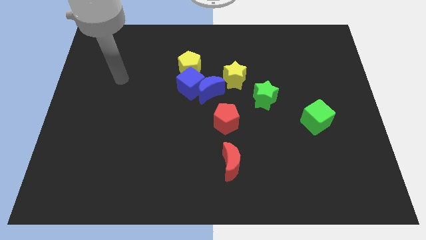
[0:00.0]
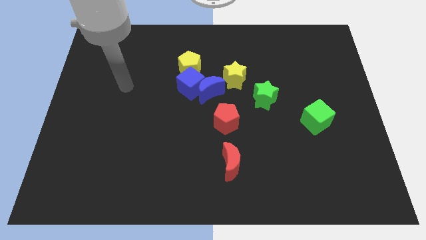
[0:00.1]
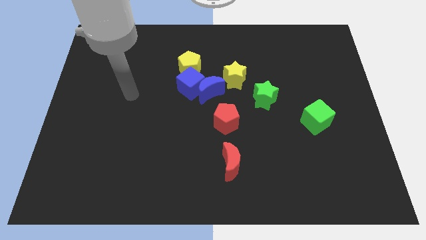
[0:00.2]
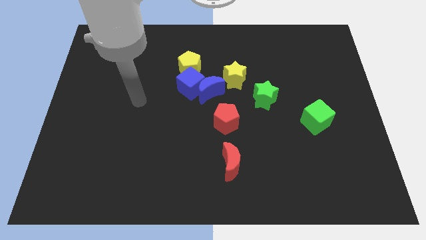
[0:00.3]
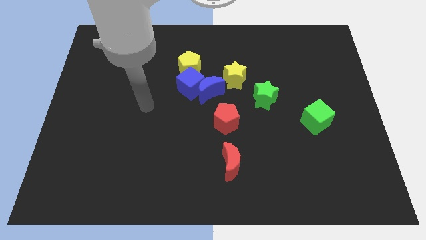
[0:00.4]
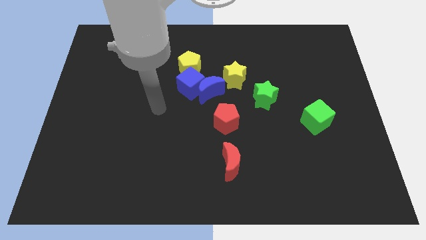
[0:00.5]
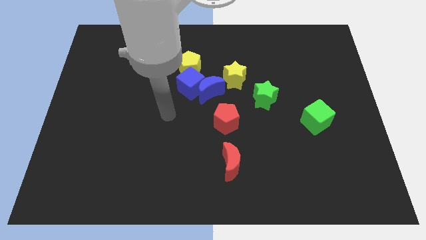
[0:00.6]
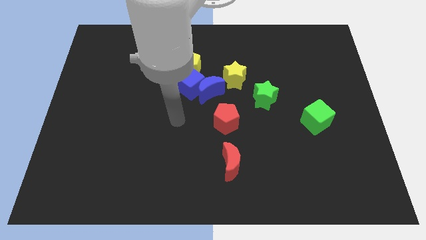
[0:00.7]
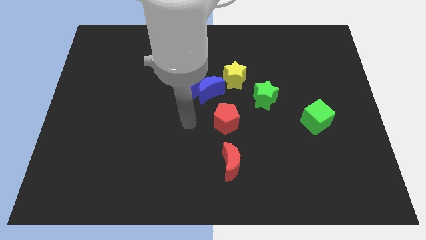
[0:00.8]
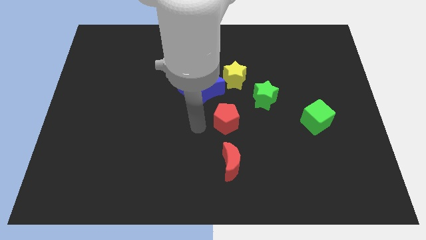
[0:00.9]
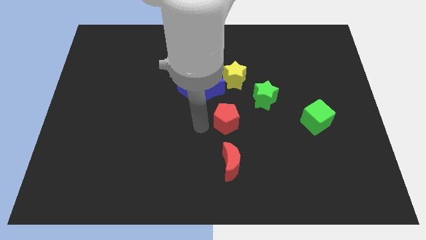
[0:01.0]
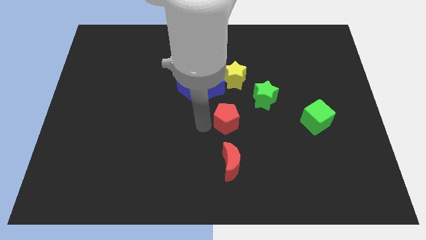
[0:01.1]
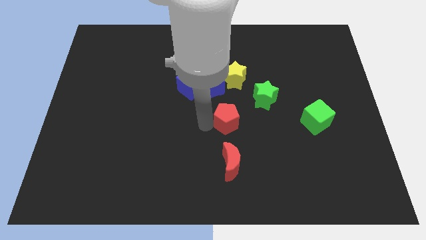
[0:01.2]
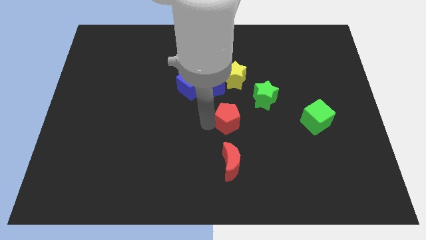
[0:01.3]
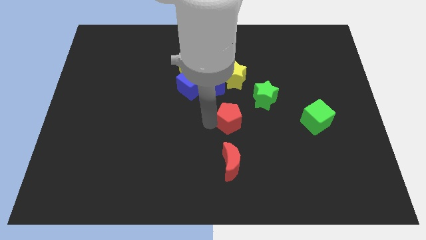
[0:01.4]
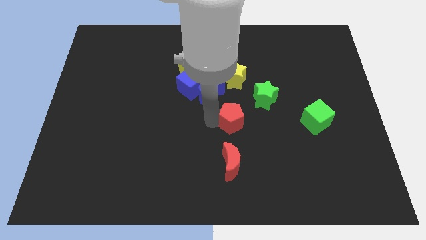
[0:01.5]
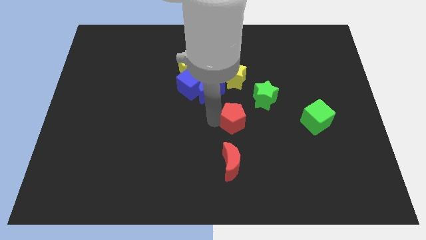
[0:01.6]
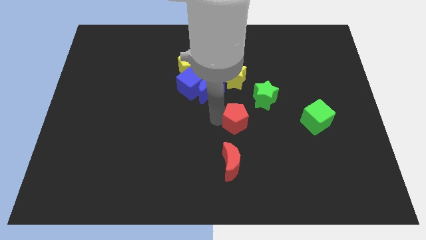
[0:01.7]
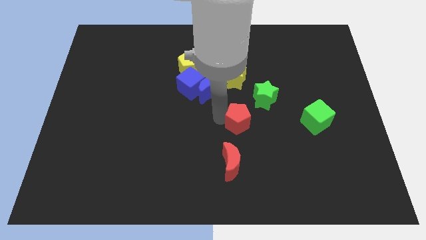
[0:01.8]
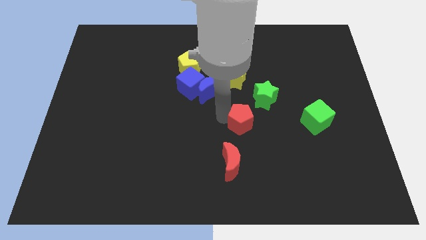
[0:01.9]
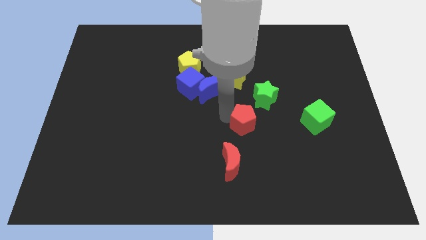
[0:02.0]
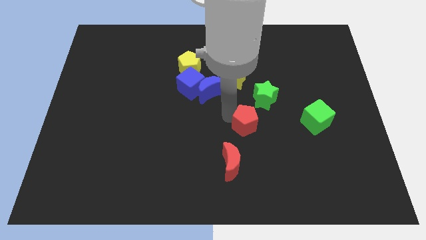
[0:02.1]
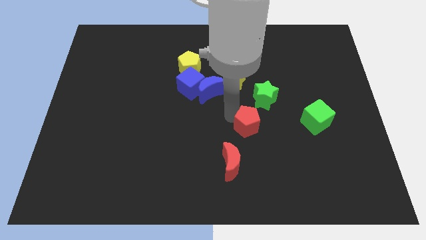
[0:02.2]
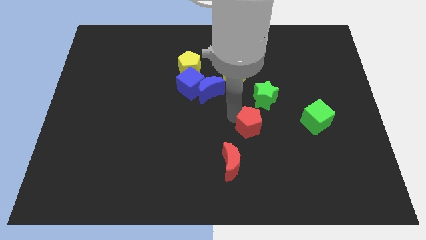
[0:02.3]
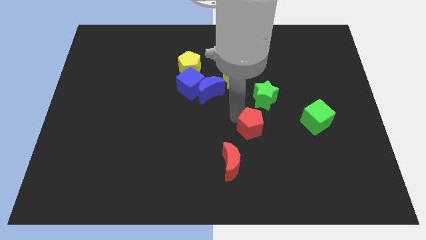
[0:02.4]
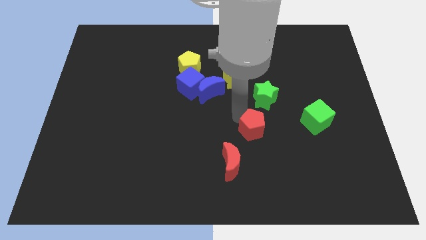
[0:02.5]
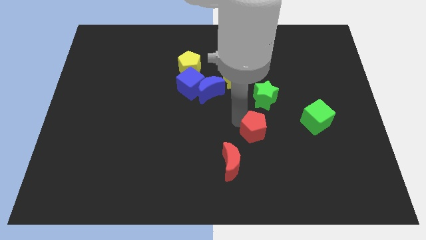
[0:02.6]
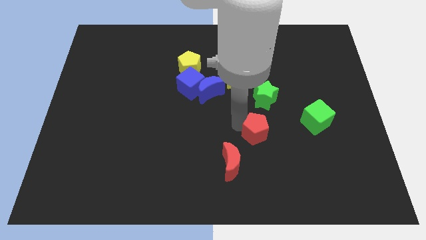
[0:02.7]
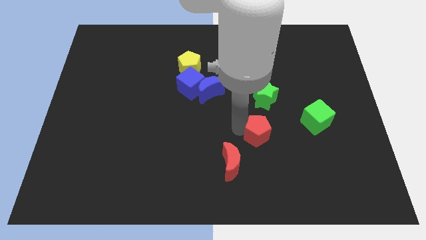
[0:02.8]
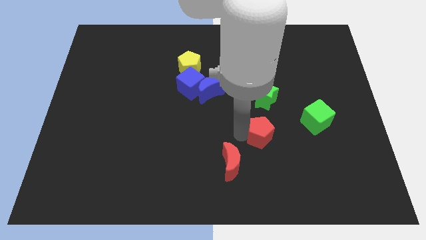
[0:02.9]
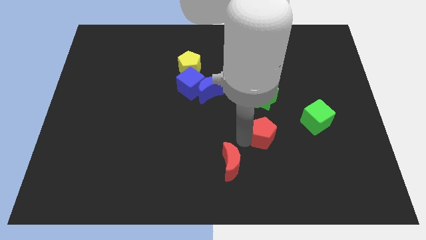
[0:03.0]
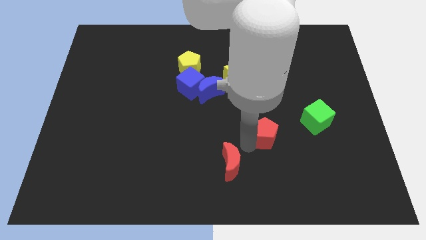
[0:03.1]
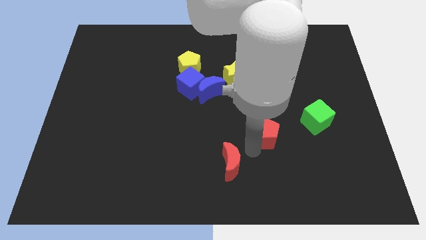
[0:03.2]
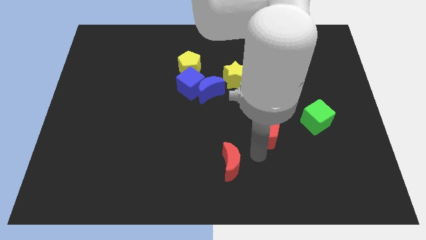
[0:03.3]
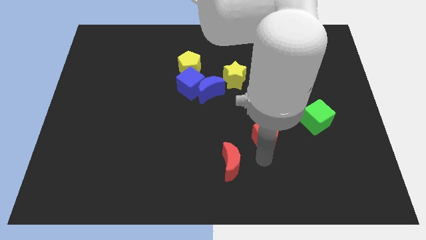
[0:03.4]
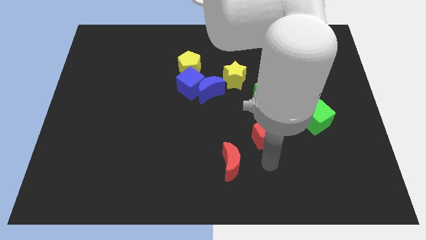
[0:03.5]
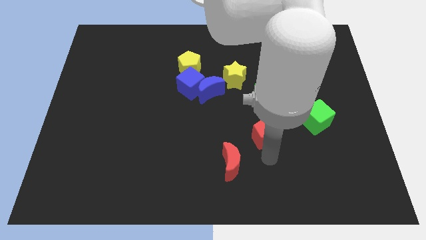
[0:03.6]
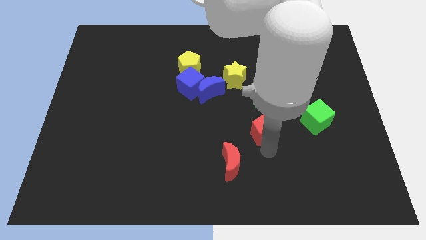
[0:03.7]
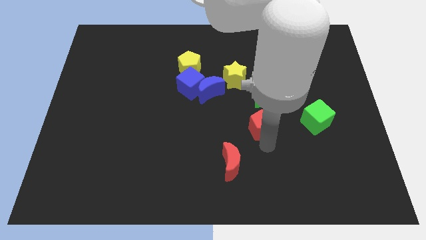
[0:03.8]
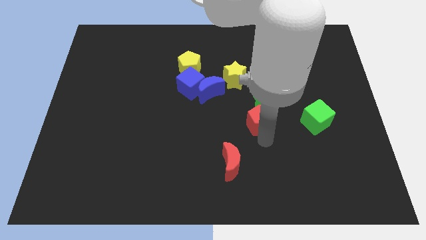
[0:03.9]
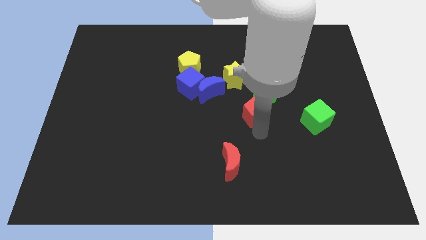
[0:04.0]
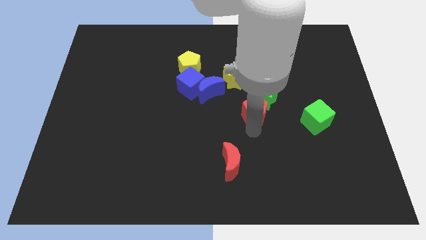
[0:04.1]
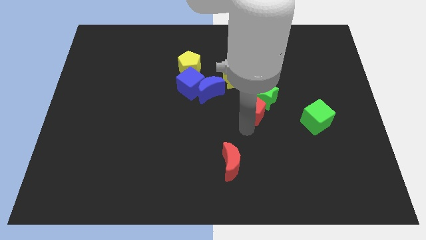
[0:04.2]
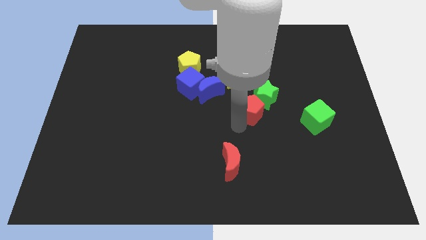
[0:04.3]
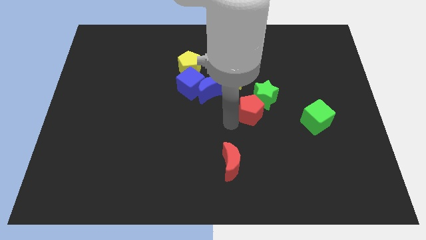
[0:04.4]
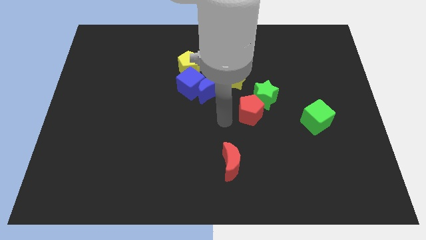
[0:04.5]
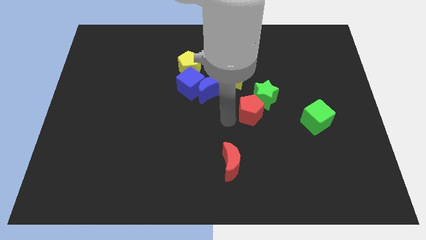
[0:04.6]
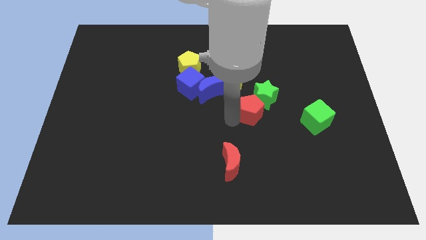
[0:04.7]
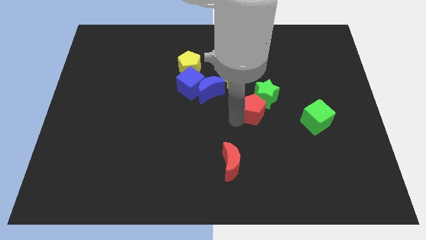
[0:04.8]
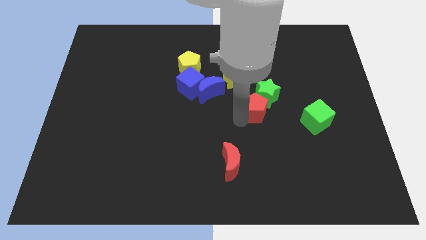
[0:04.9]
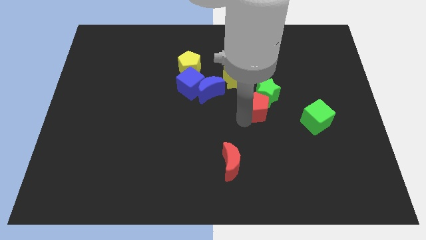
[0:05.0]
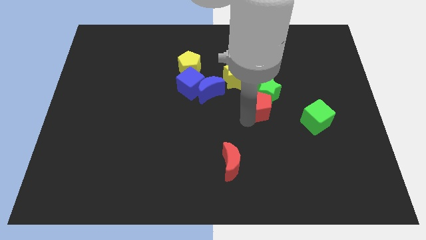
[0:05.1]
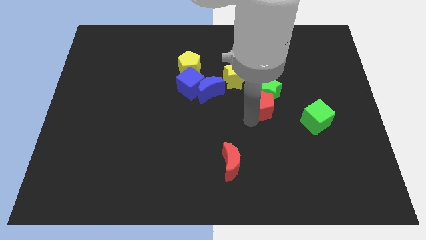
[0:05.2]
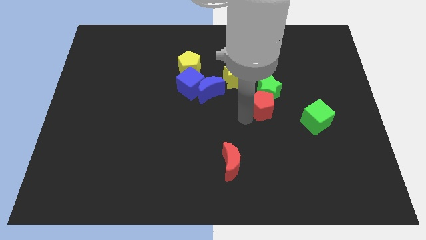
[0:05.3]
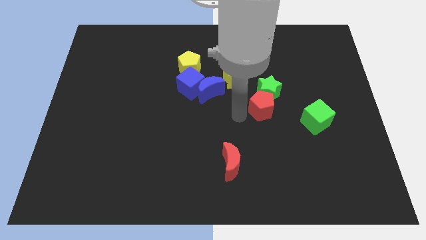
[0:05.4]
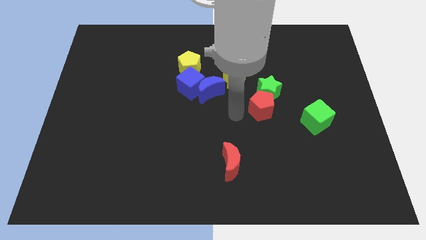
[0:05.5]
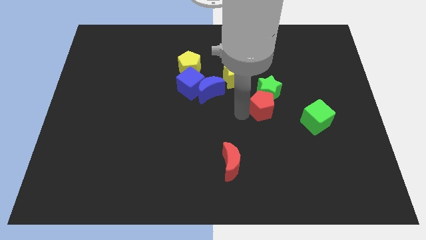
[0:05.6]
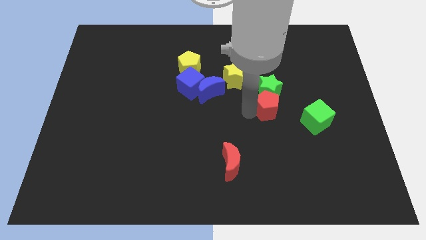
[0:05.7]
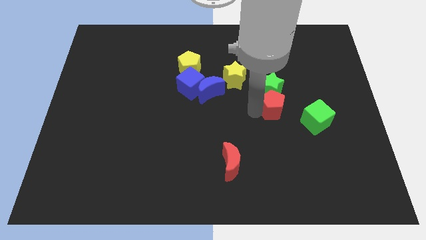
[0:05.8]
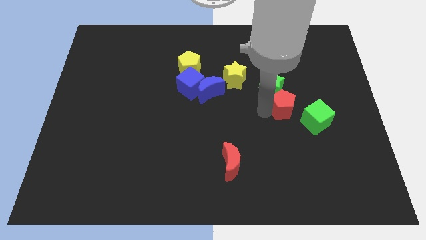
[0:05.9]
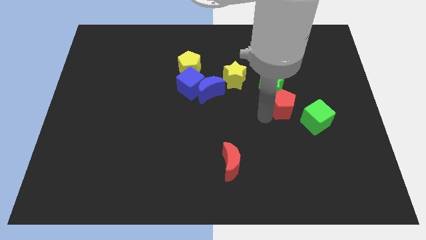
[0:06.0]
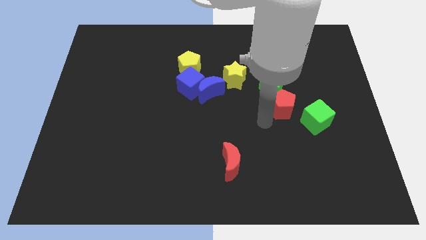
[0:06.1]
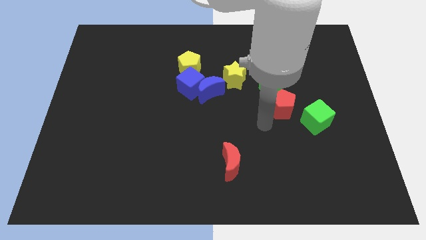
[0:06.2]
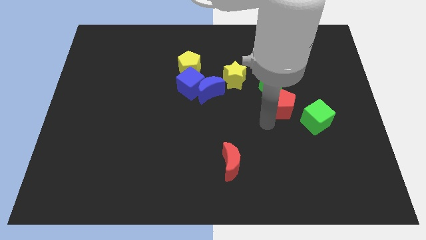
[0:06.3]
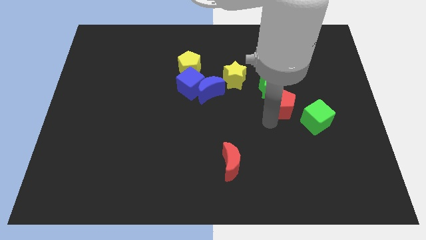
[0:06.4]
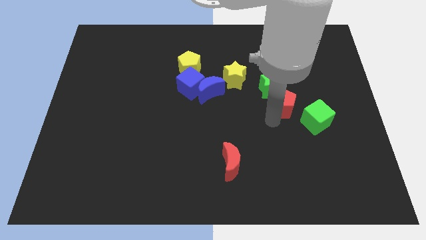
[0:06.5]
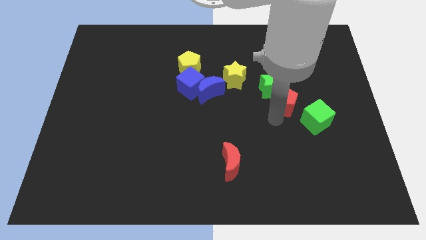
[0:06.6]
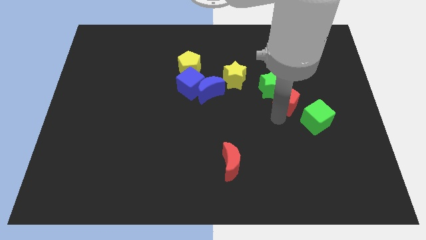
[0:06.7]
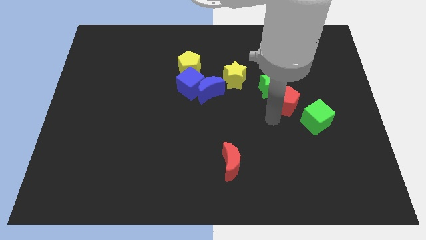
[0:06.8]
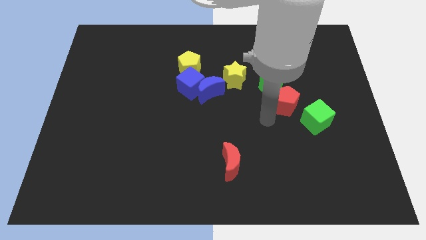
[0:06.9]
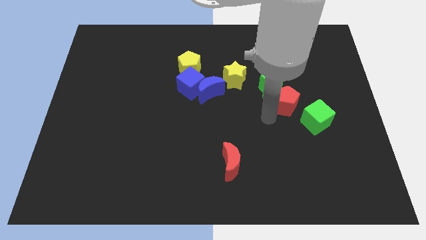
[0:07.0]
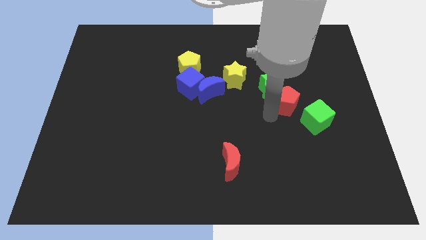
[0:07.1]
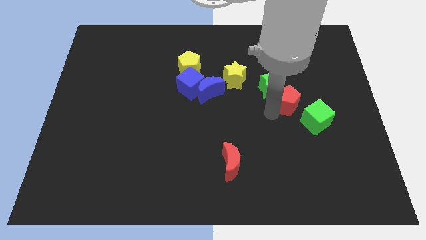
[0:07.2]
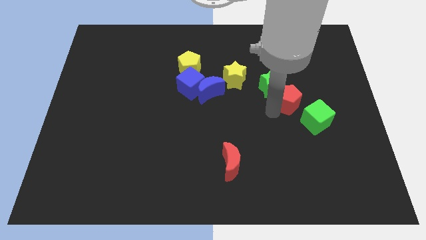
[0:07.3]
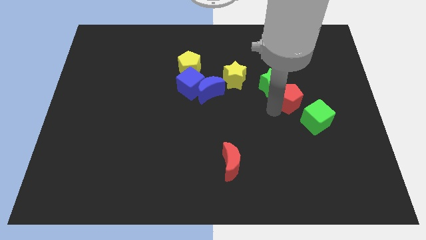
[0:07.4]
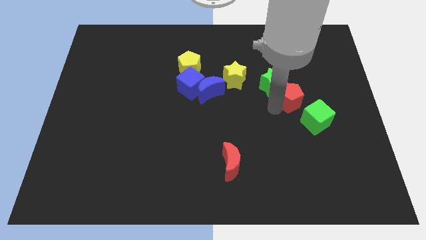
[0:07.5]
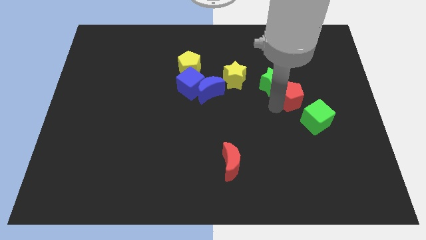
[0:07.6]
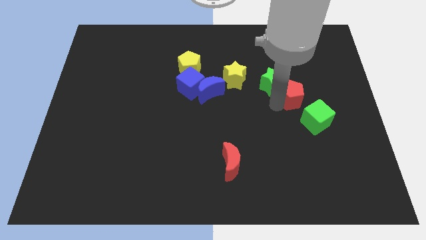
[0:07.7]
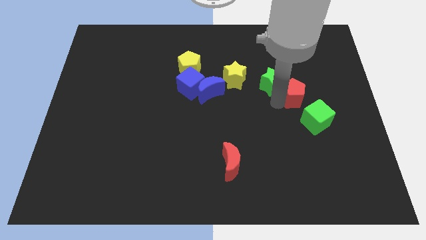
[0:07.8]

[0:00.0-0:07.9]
slide the red pentagon above the green cube
